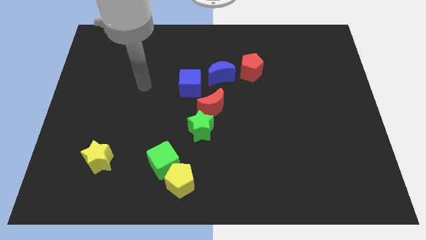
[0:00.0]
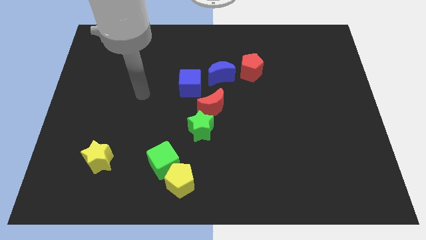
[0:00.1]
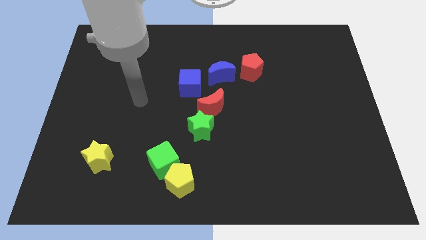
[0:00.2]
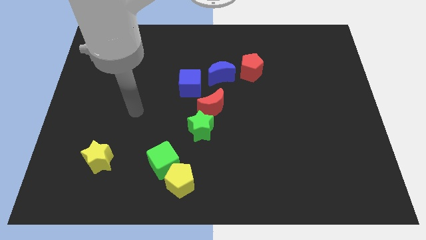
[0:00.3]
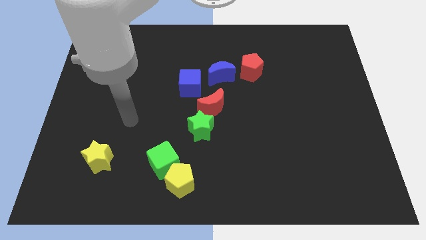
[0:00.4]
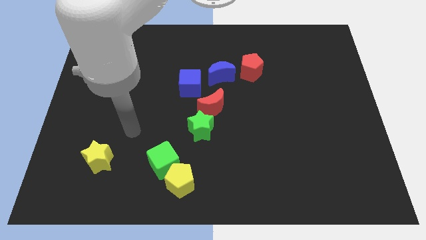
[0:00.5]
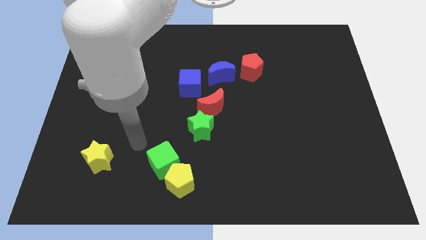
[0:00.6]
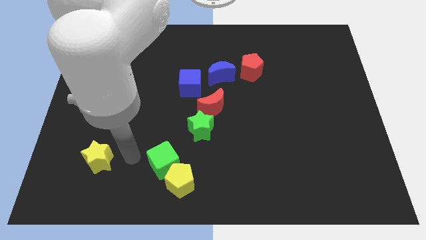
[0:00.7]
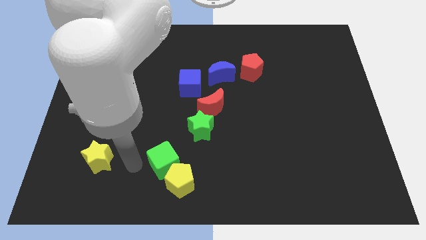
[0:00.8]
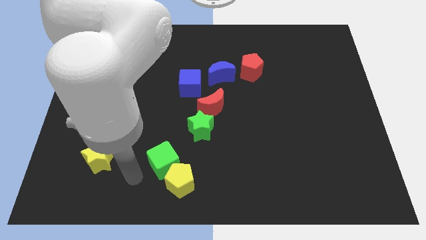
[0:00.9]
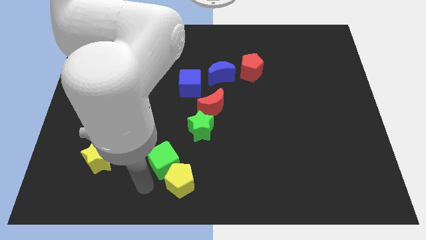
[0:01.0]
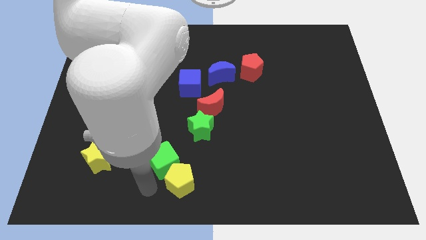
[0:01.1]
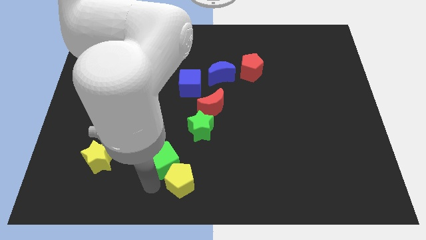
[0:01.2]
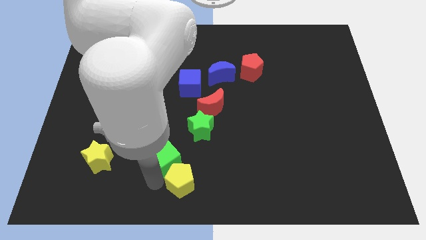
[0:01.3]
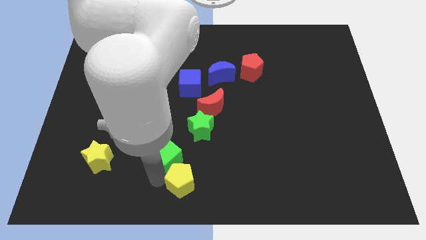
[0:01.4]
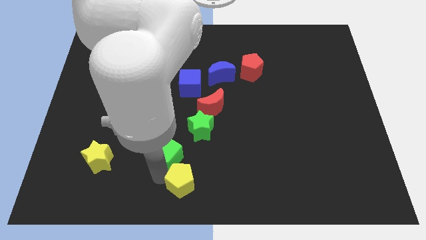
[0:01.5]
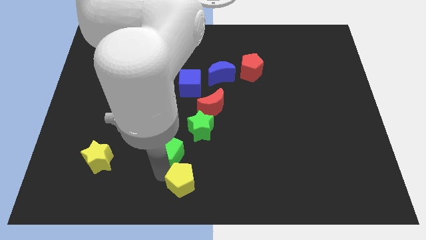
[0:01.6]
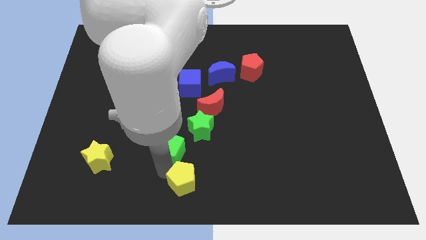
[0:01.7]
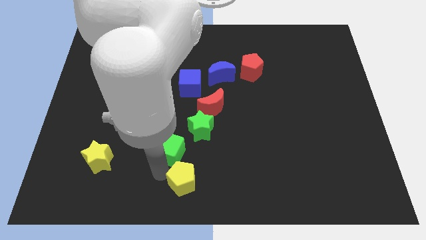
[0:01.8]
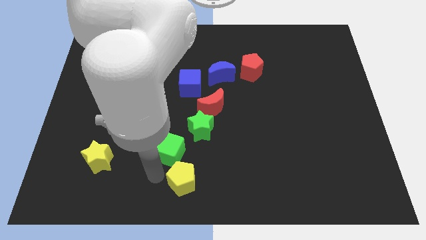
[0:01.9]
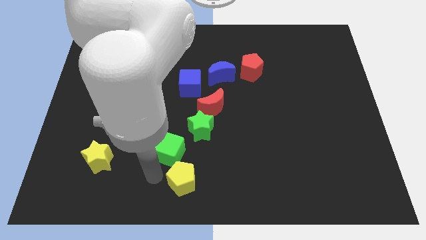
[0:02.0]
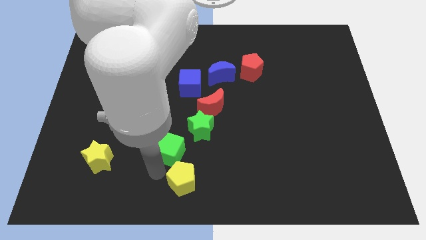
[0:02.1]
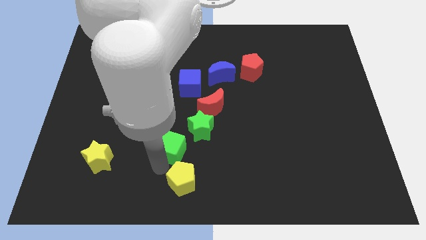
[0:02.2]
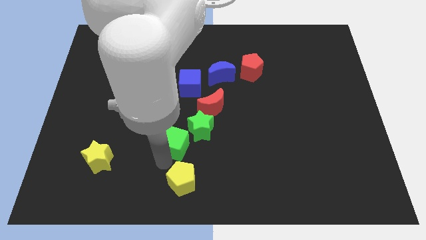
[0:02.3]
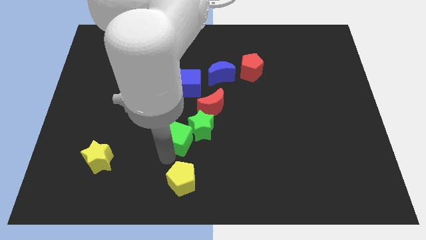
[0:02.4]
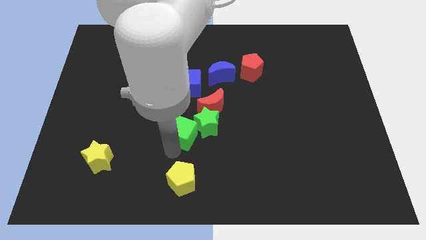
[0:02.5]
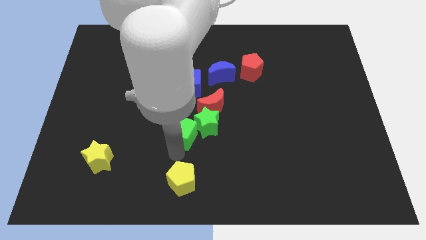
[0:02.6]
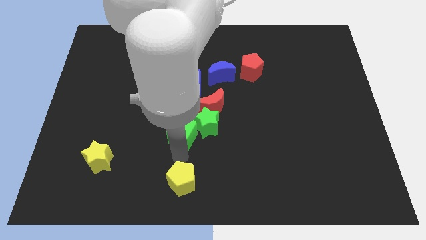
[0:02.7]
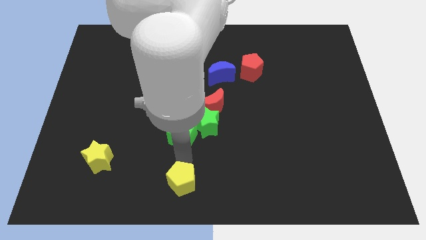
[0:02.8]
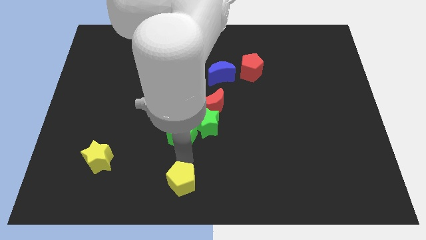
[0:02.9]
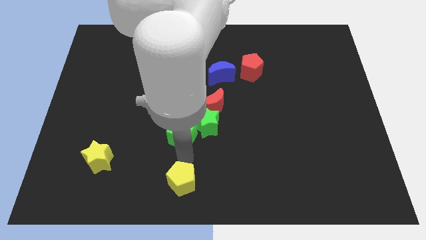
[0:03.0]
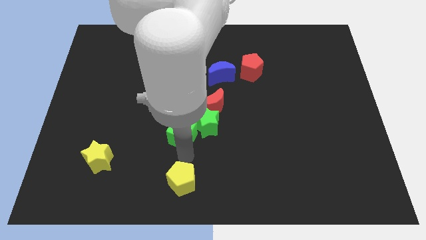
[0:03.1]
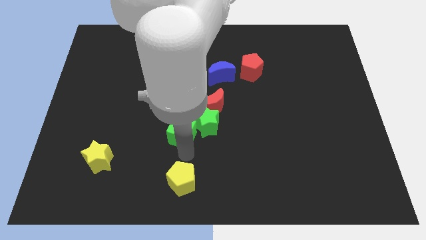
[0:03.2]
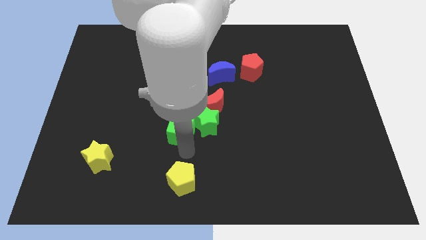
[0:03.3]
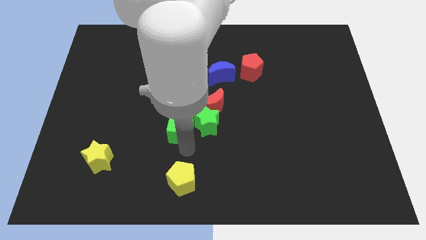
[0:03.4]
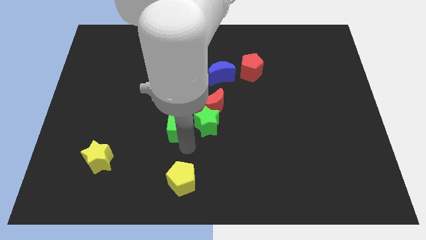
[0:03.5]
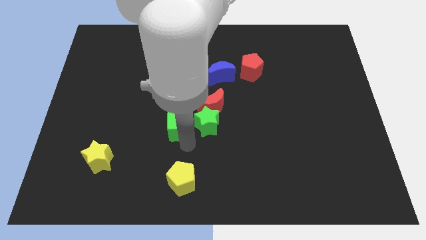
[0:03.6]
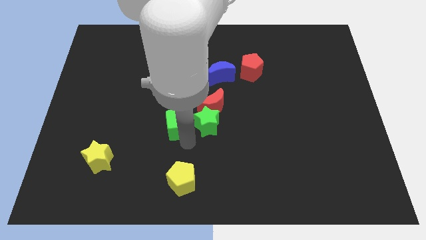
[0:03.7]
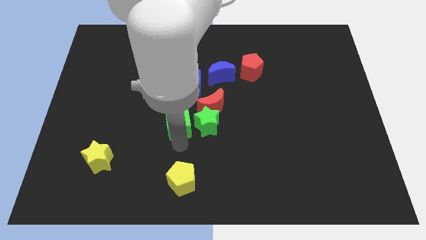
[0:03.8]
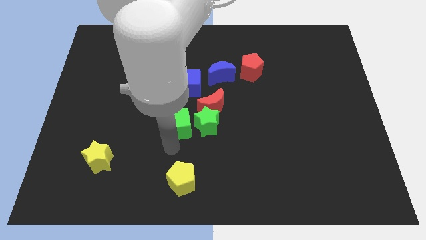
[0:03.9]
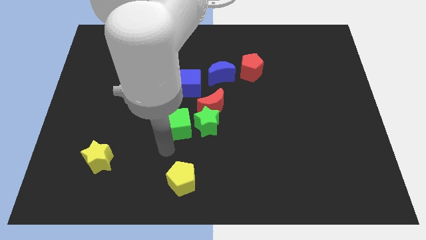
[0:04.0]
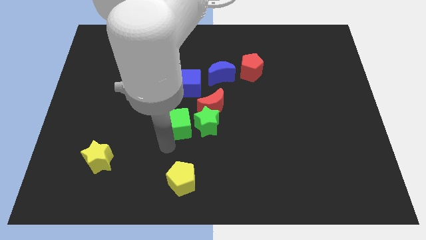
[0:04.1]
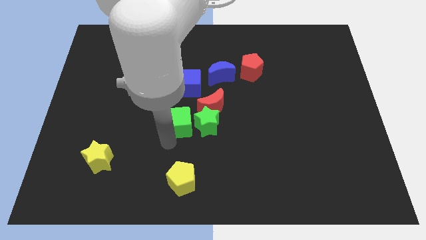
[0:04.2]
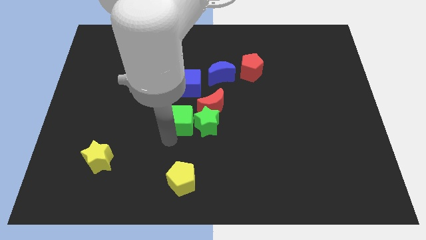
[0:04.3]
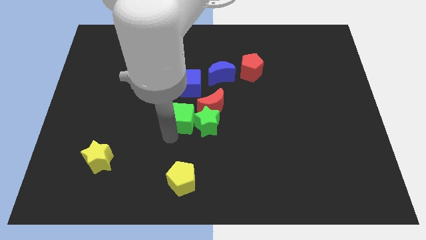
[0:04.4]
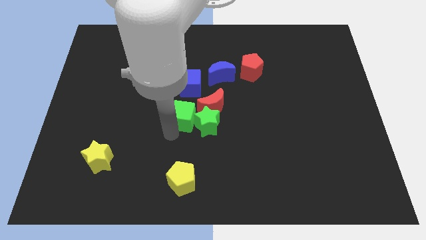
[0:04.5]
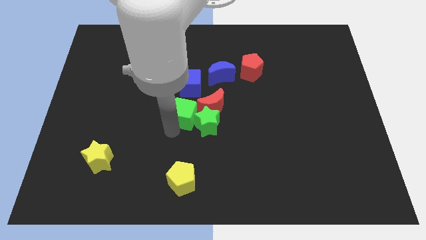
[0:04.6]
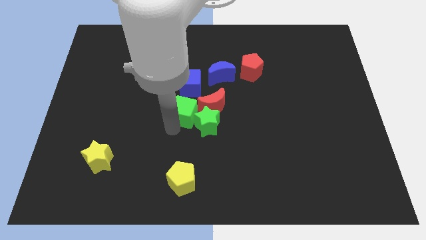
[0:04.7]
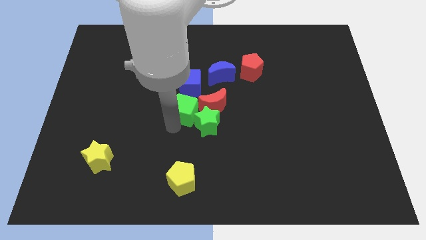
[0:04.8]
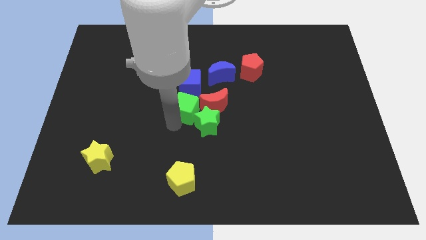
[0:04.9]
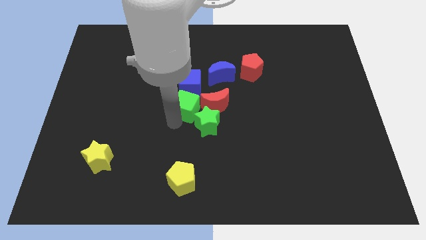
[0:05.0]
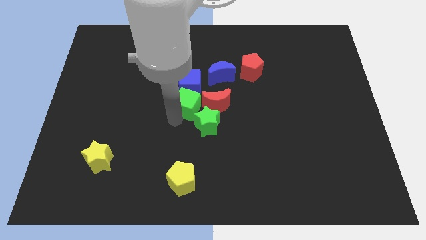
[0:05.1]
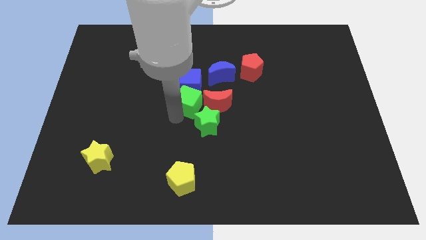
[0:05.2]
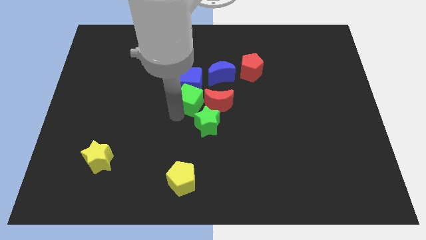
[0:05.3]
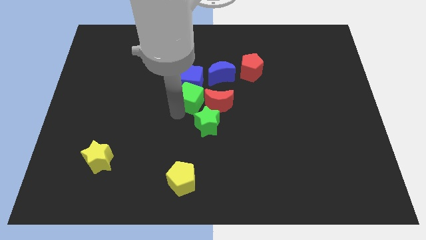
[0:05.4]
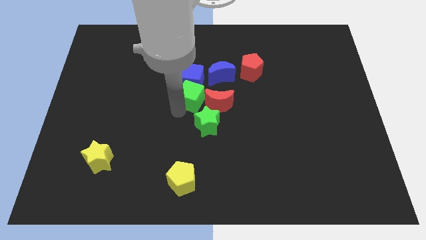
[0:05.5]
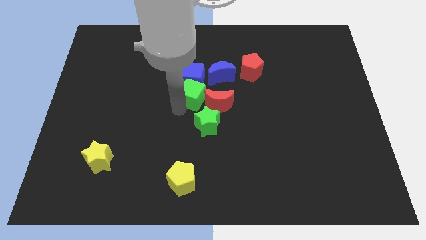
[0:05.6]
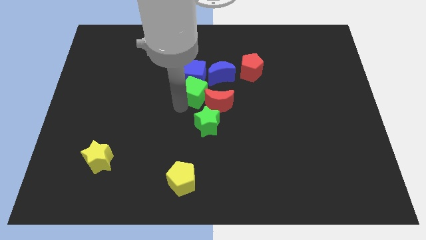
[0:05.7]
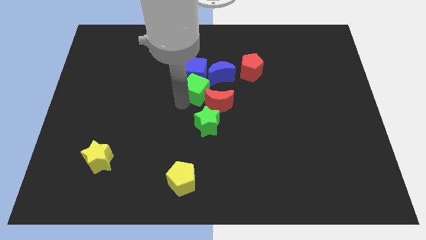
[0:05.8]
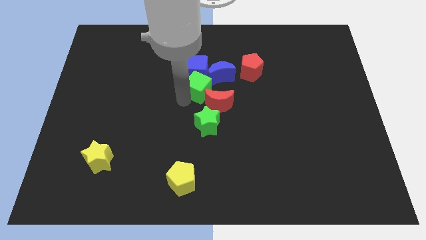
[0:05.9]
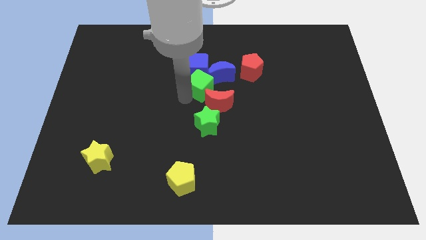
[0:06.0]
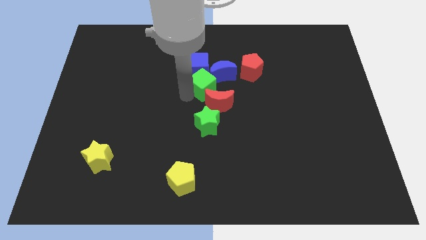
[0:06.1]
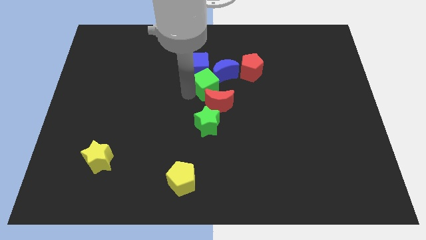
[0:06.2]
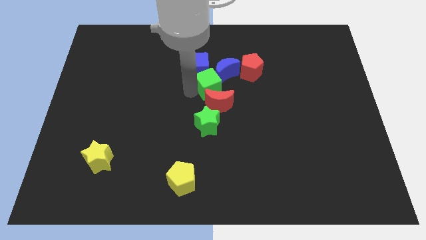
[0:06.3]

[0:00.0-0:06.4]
slide the green cube next to the blue moon

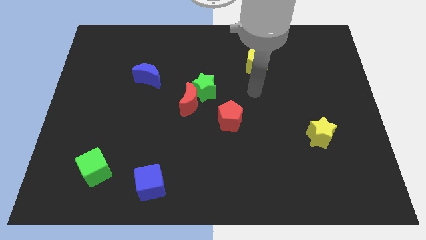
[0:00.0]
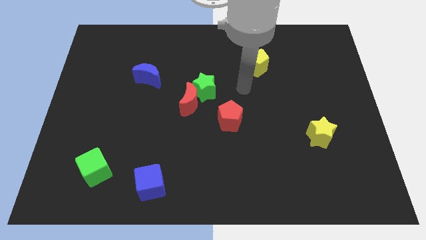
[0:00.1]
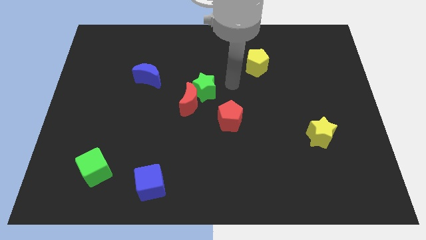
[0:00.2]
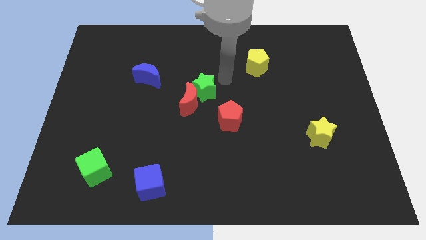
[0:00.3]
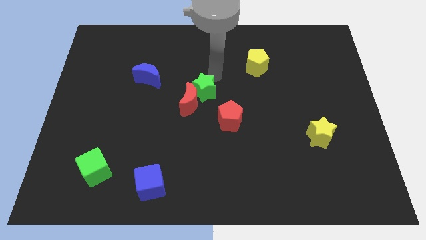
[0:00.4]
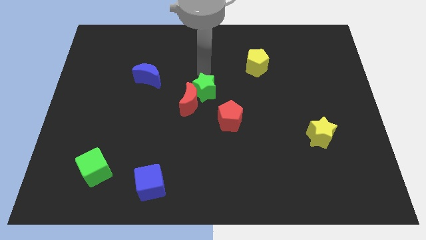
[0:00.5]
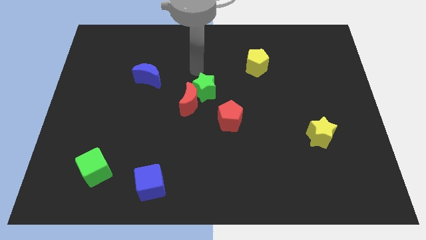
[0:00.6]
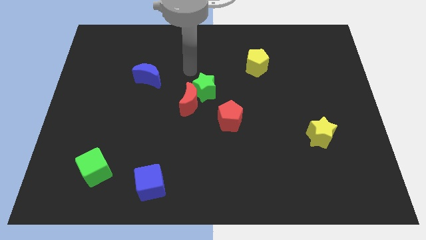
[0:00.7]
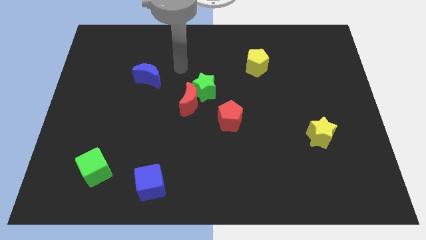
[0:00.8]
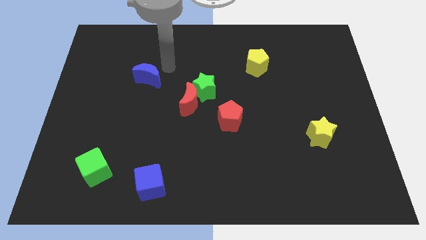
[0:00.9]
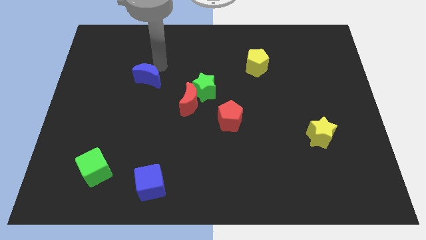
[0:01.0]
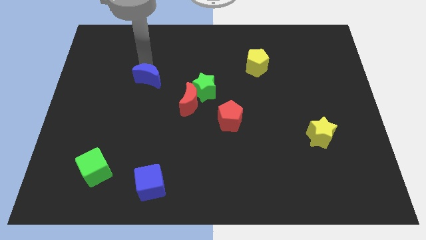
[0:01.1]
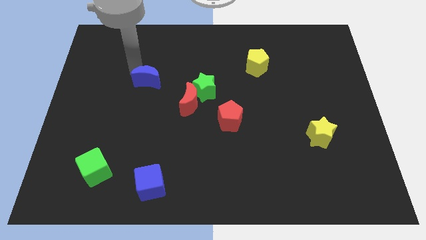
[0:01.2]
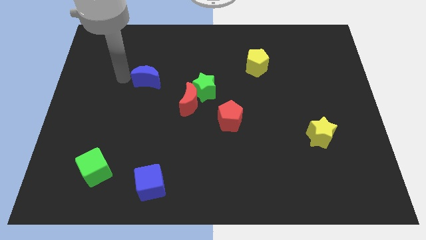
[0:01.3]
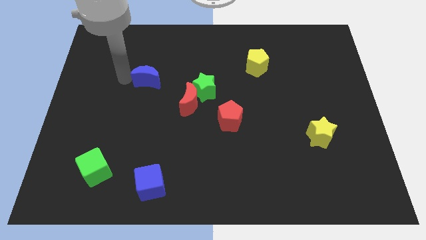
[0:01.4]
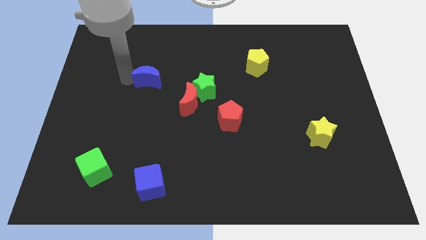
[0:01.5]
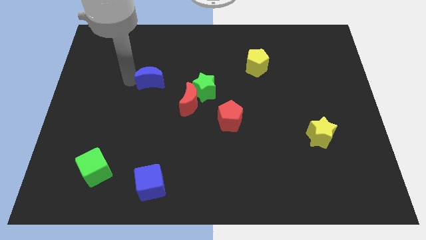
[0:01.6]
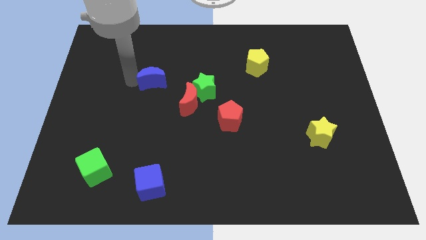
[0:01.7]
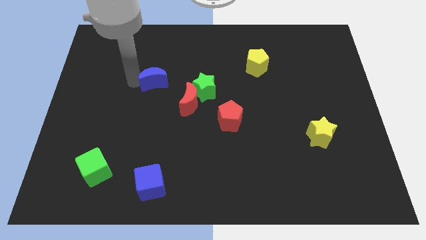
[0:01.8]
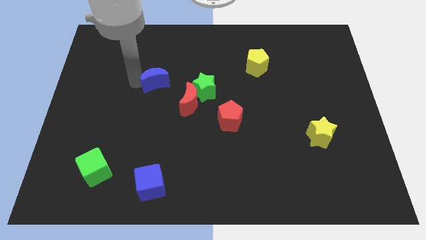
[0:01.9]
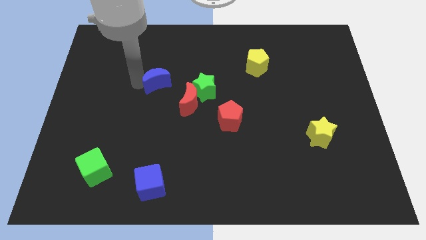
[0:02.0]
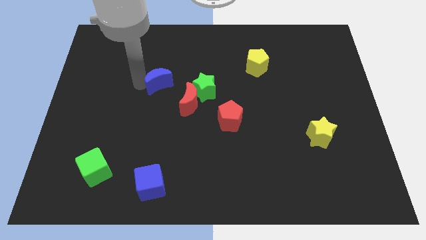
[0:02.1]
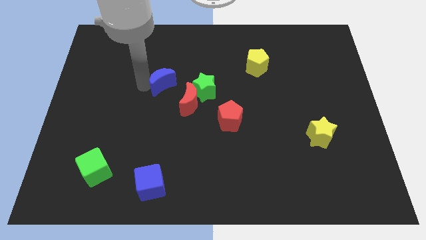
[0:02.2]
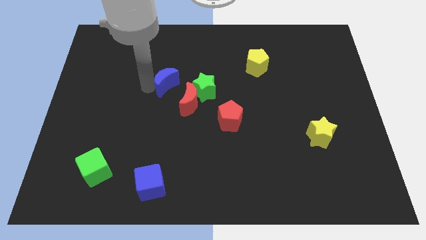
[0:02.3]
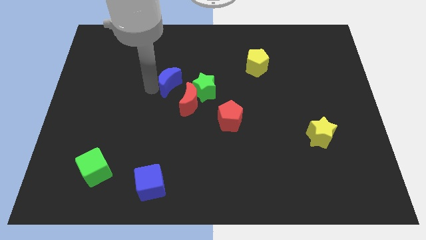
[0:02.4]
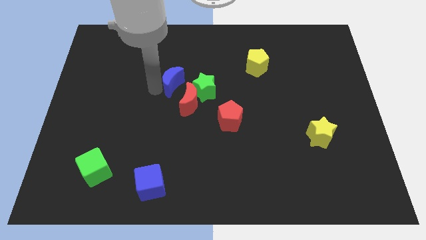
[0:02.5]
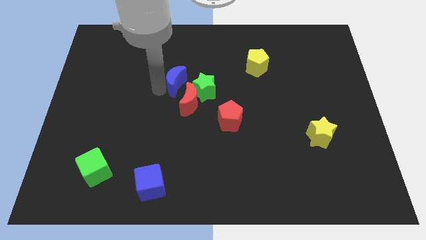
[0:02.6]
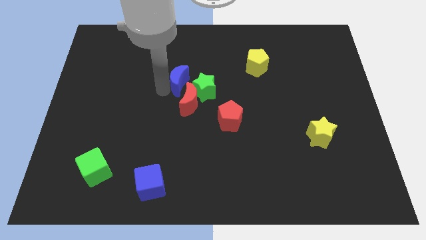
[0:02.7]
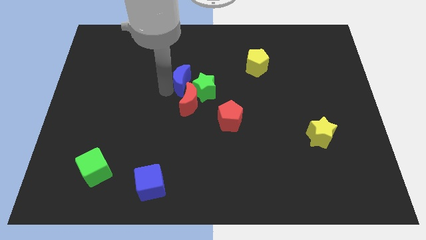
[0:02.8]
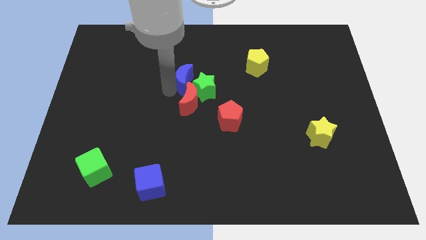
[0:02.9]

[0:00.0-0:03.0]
put the blue moon towards the green star
